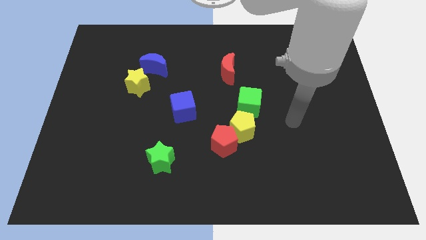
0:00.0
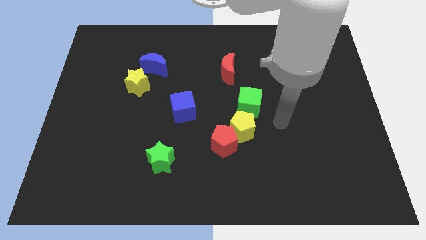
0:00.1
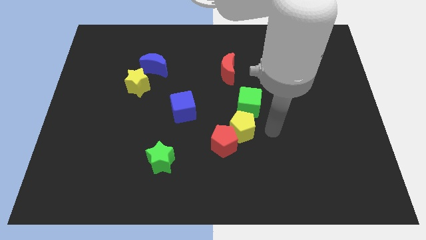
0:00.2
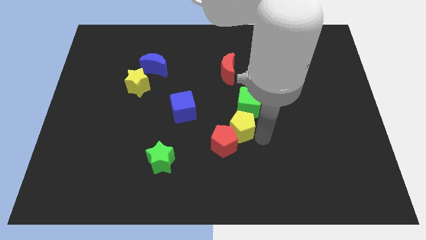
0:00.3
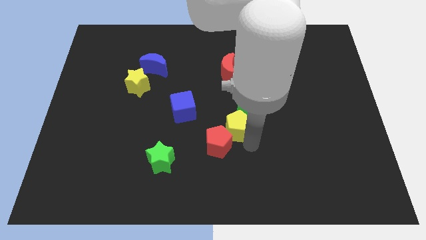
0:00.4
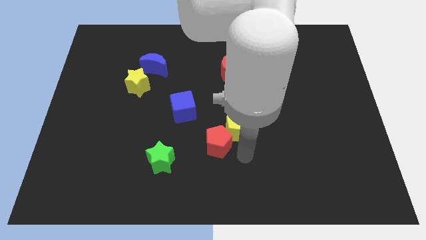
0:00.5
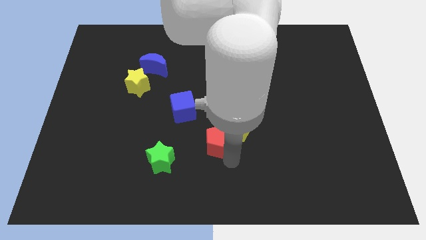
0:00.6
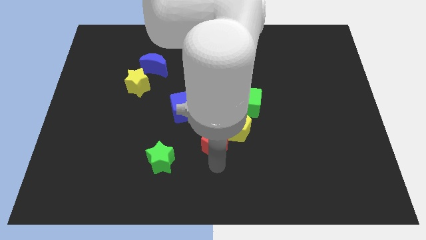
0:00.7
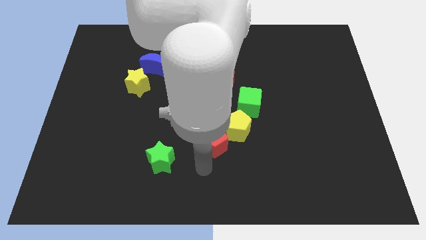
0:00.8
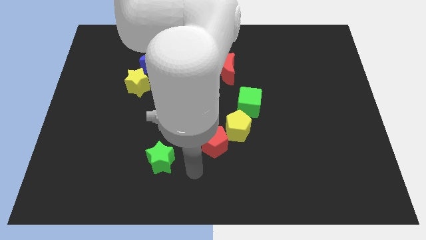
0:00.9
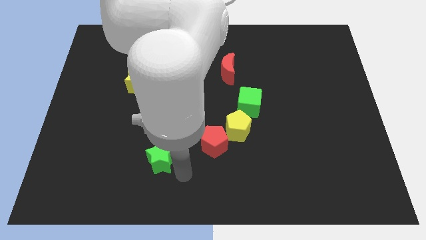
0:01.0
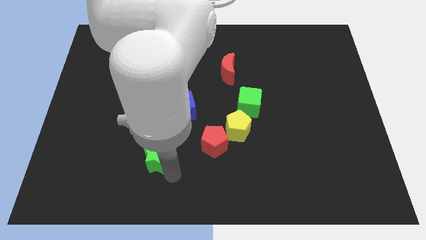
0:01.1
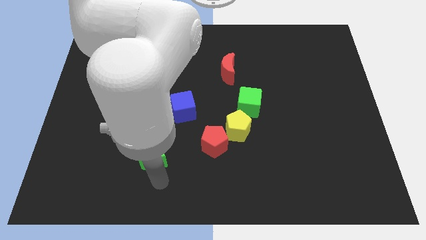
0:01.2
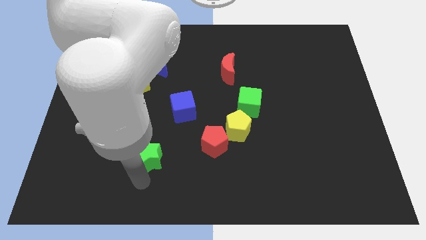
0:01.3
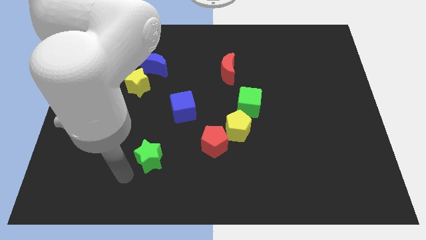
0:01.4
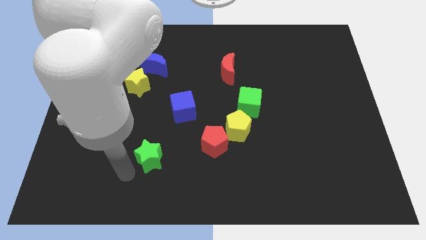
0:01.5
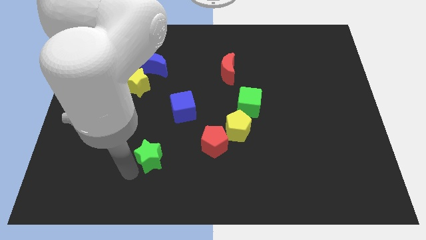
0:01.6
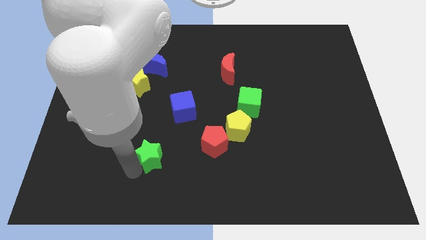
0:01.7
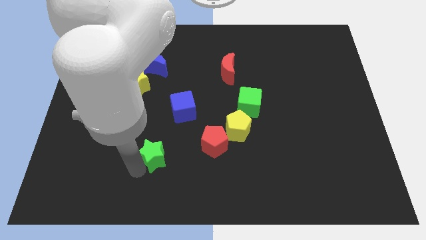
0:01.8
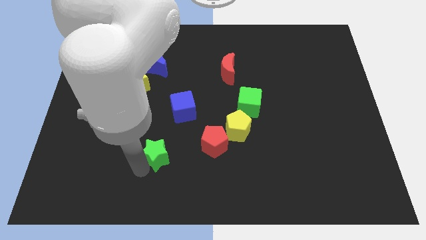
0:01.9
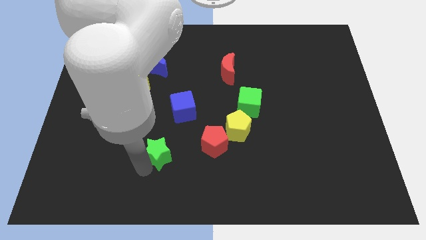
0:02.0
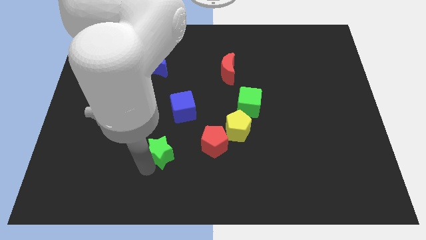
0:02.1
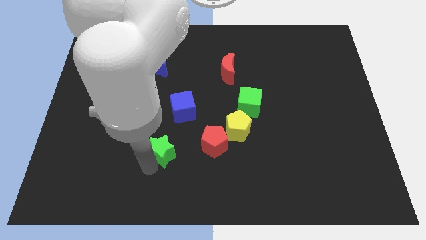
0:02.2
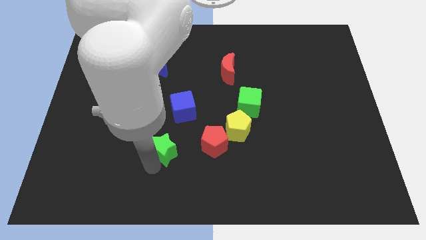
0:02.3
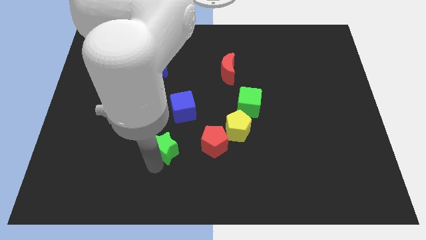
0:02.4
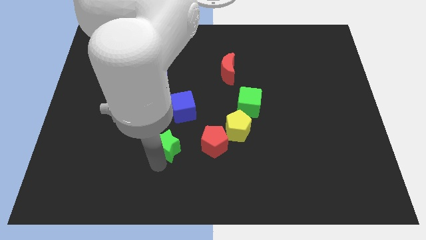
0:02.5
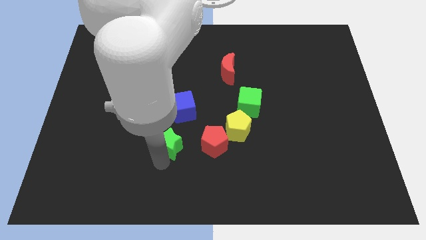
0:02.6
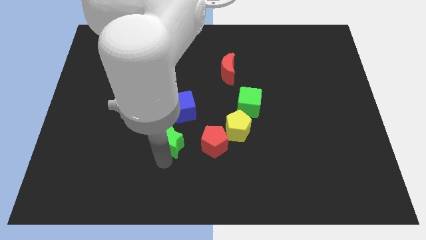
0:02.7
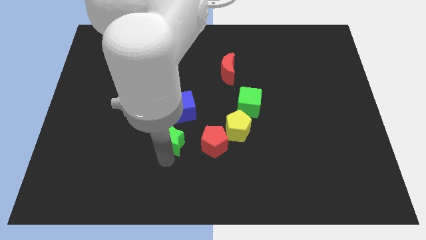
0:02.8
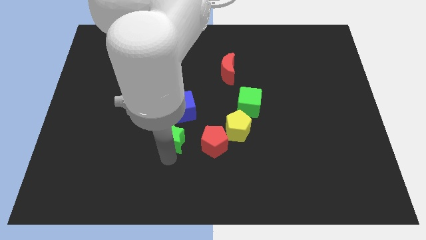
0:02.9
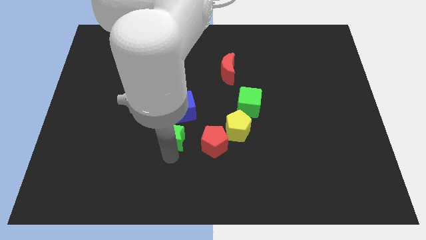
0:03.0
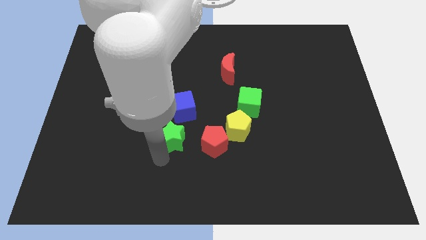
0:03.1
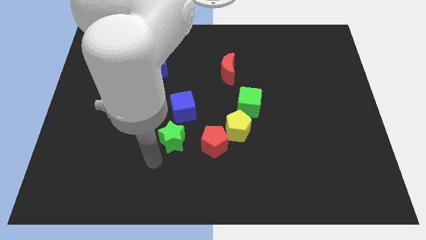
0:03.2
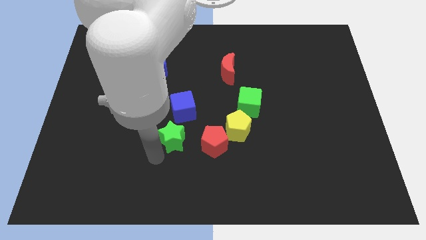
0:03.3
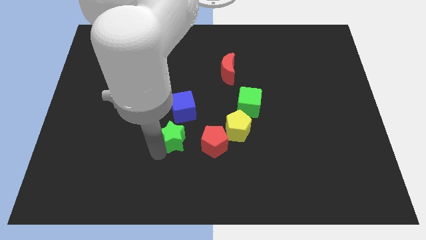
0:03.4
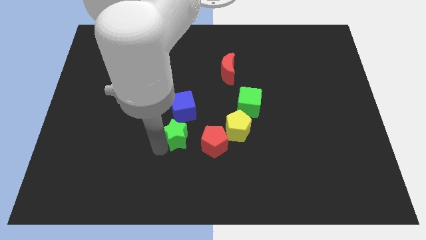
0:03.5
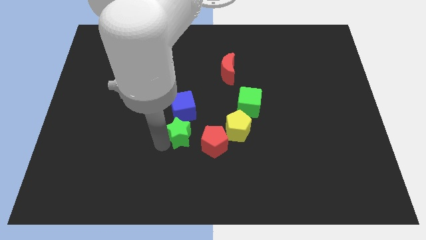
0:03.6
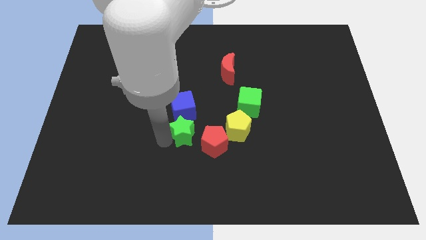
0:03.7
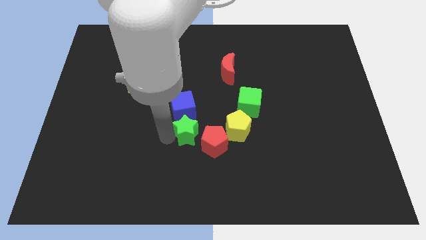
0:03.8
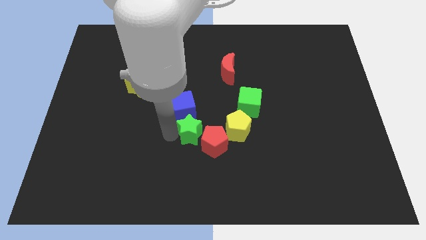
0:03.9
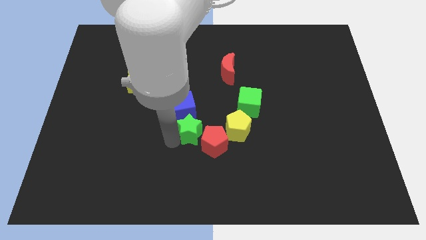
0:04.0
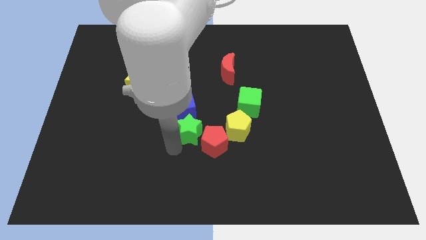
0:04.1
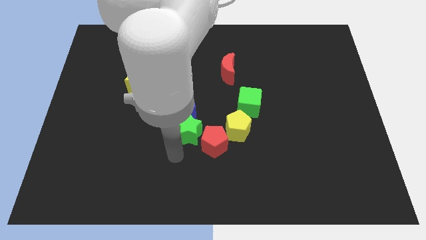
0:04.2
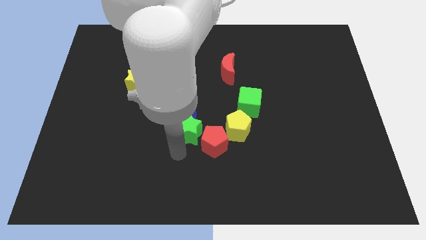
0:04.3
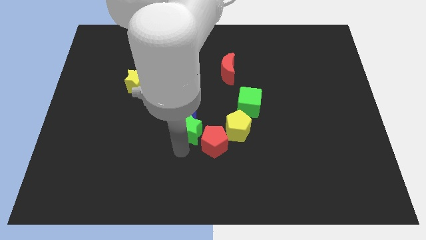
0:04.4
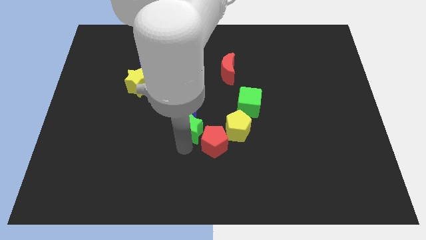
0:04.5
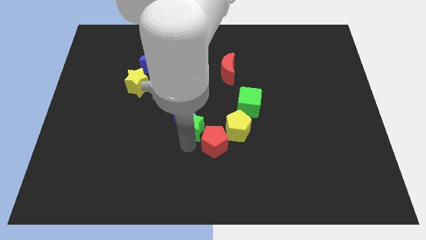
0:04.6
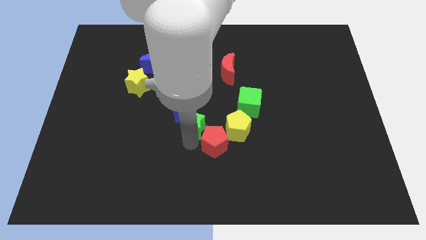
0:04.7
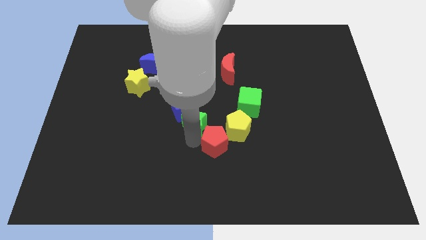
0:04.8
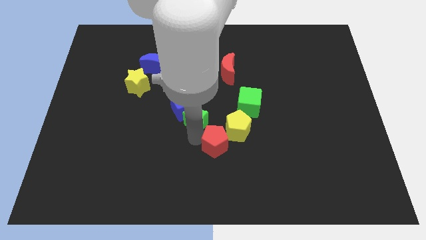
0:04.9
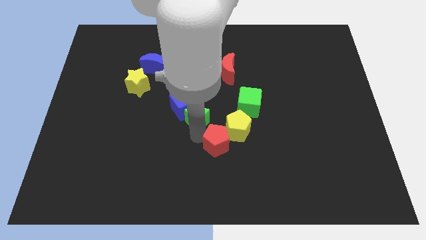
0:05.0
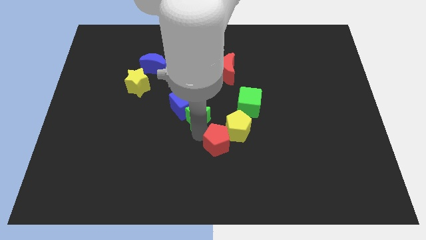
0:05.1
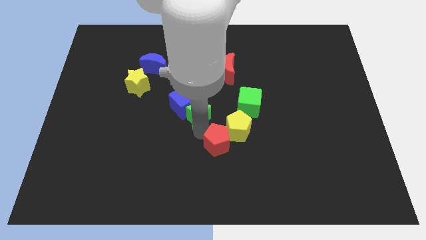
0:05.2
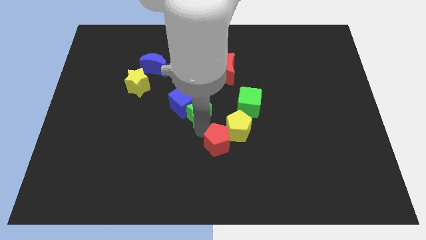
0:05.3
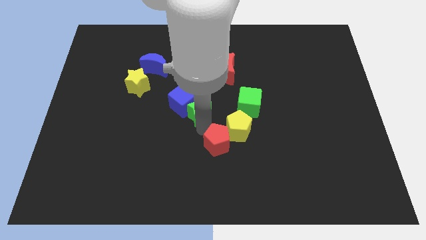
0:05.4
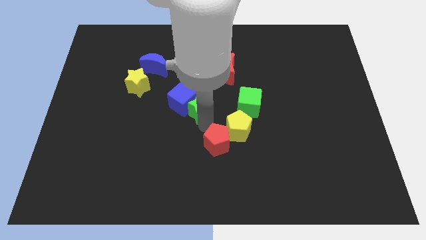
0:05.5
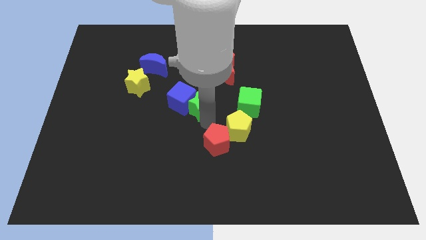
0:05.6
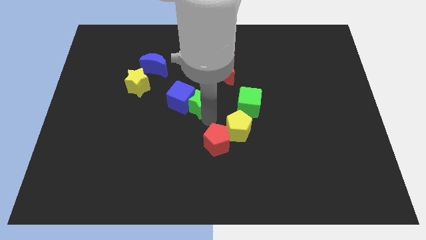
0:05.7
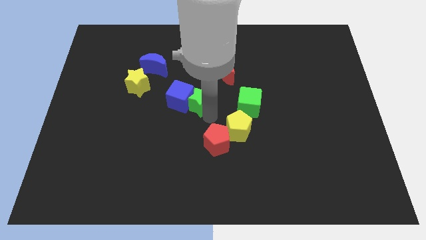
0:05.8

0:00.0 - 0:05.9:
push the green star to the top right side of the blue cube
